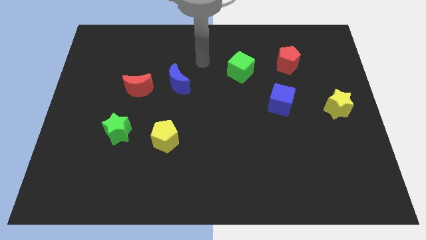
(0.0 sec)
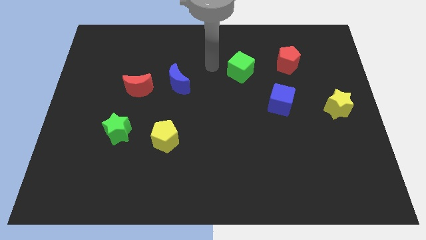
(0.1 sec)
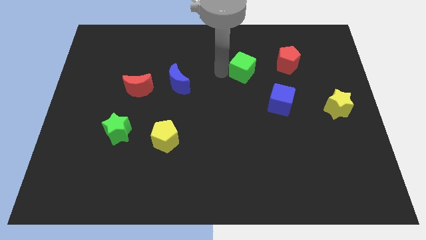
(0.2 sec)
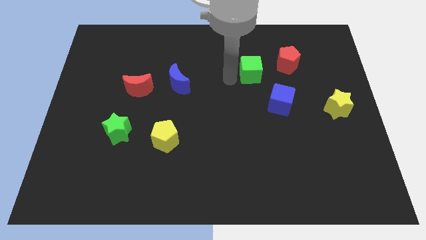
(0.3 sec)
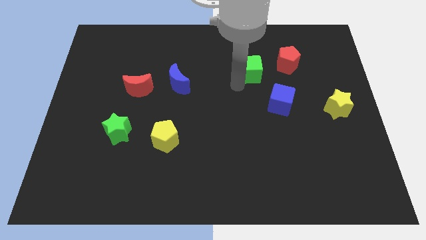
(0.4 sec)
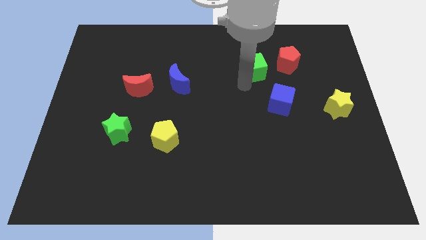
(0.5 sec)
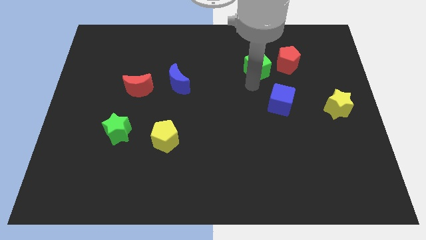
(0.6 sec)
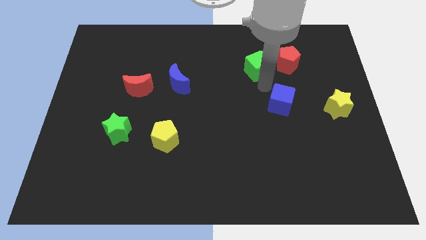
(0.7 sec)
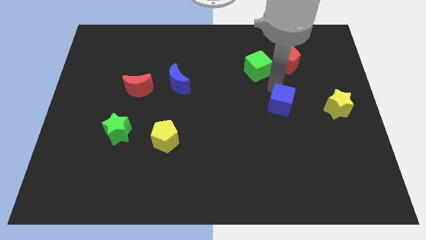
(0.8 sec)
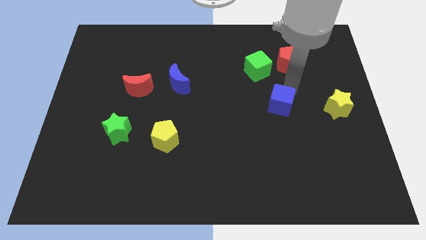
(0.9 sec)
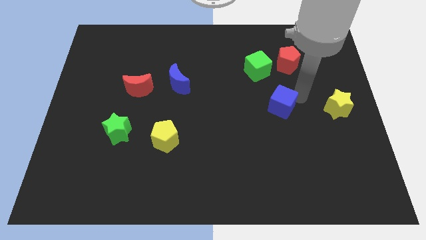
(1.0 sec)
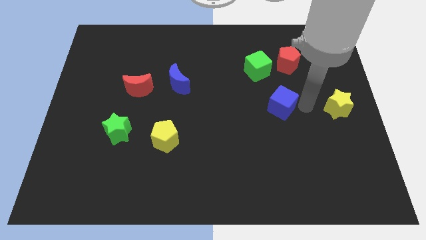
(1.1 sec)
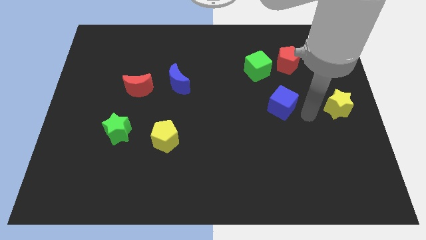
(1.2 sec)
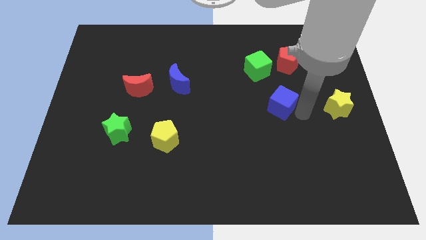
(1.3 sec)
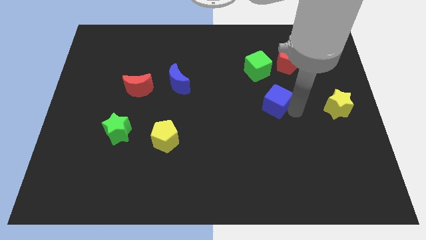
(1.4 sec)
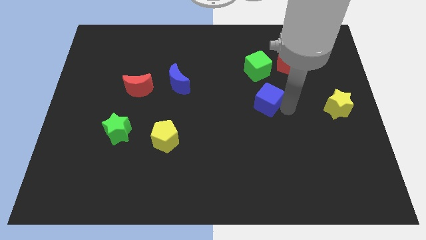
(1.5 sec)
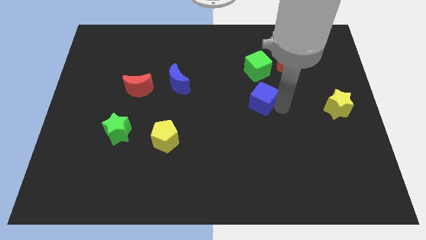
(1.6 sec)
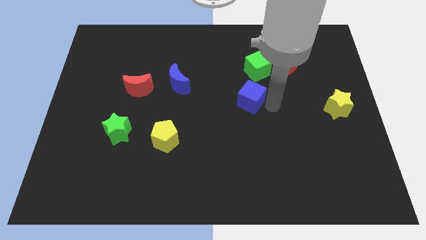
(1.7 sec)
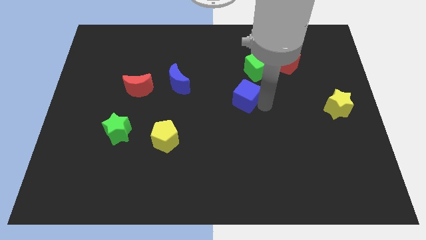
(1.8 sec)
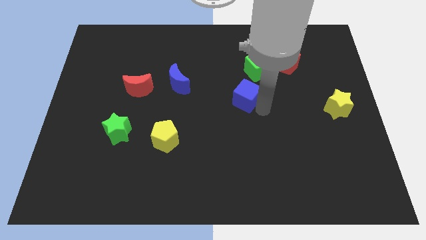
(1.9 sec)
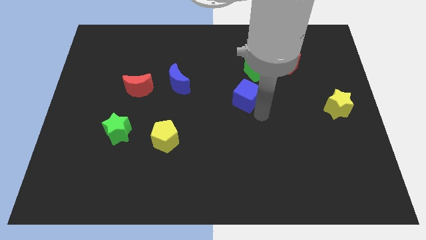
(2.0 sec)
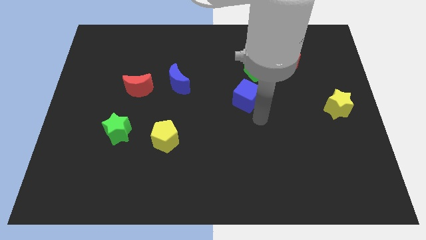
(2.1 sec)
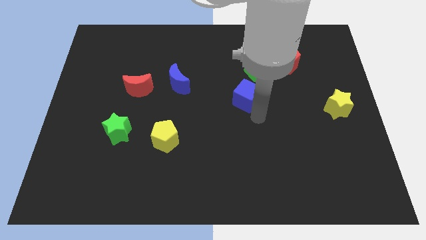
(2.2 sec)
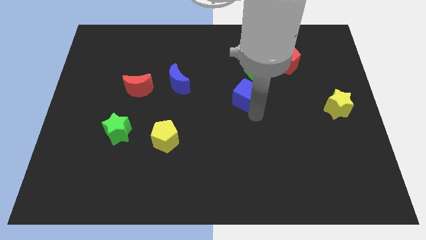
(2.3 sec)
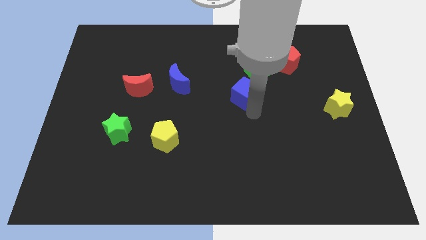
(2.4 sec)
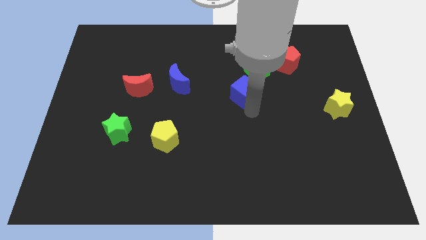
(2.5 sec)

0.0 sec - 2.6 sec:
slightly slide the blue cube up and then left

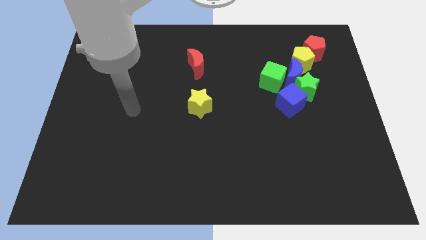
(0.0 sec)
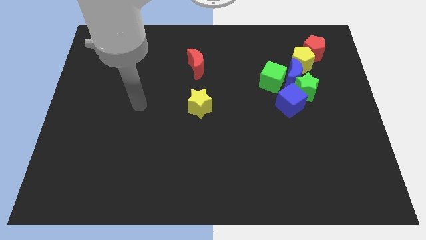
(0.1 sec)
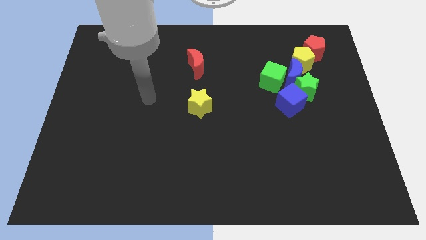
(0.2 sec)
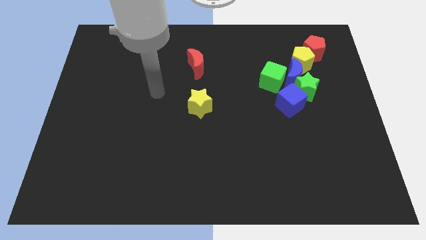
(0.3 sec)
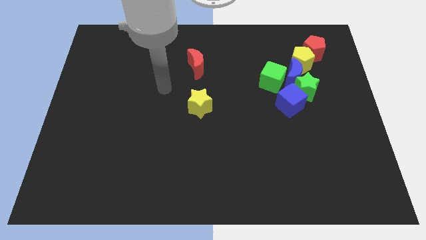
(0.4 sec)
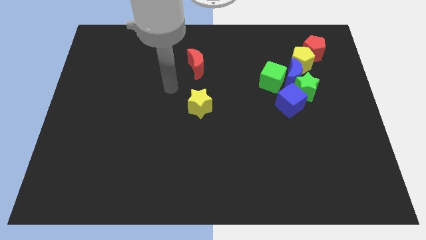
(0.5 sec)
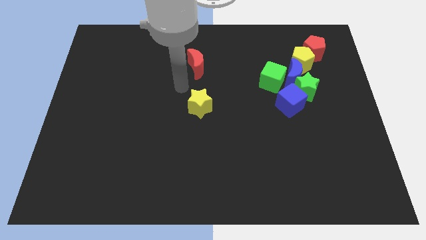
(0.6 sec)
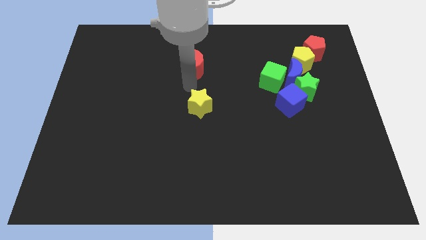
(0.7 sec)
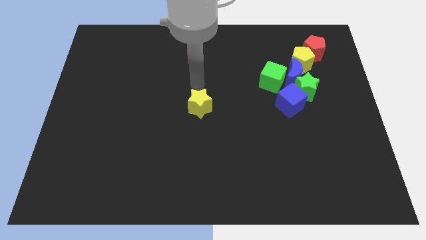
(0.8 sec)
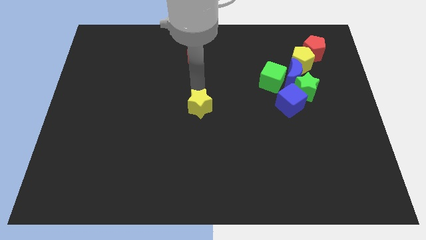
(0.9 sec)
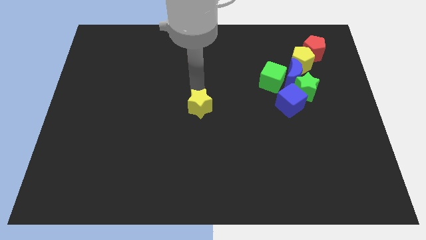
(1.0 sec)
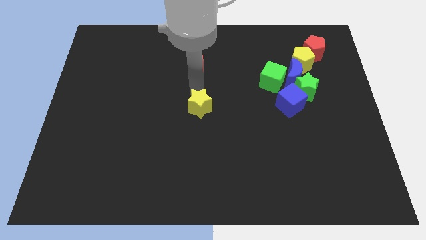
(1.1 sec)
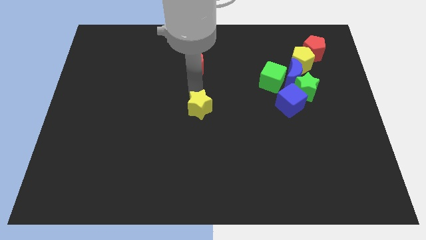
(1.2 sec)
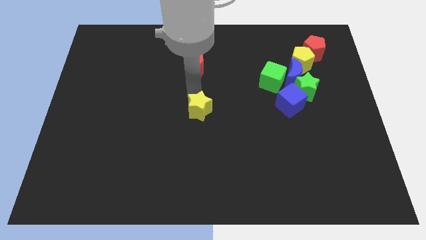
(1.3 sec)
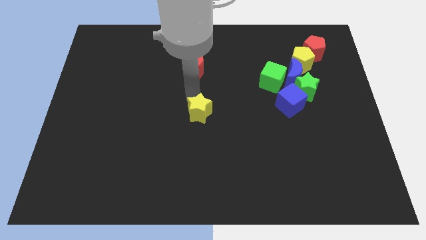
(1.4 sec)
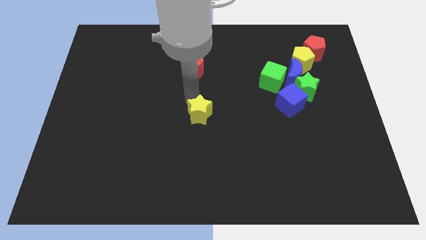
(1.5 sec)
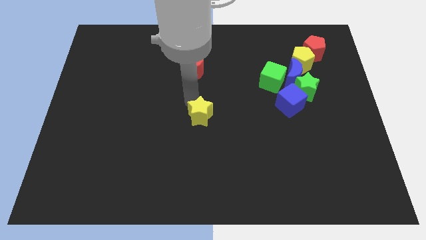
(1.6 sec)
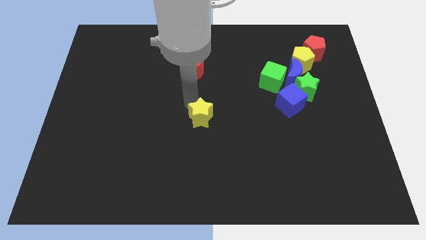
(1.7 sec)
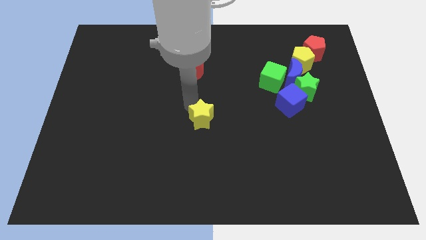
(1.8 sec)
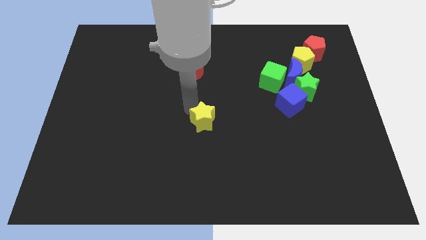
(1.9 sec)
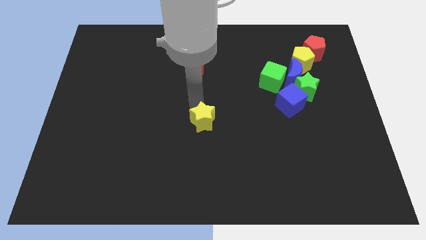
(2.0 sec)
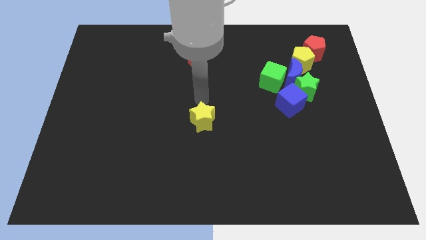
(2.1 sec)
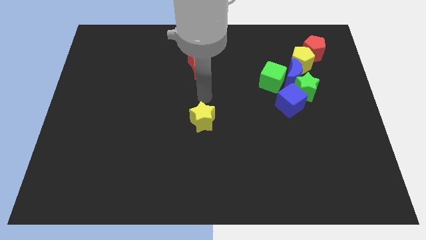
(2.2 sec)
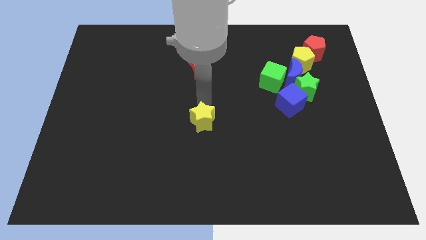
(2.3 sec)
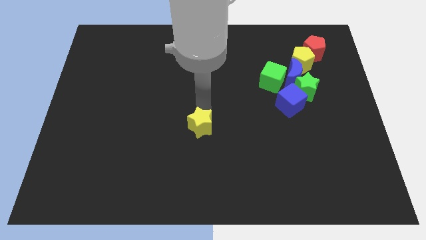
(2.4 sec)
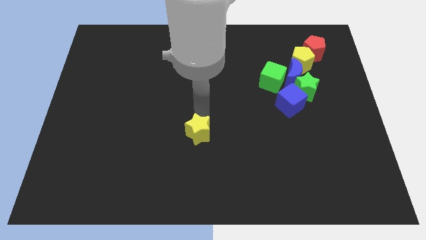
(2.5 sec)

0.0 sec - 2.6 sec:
slide the yellow star down slightly

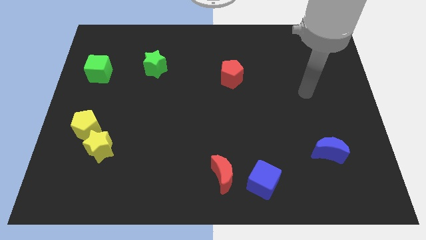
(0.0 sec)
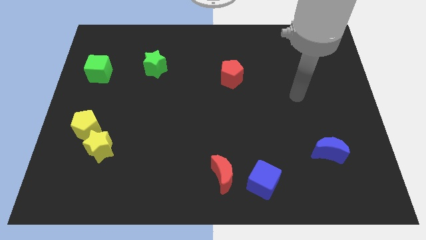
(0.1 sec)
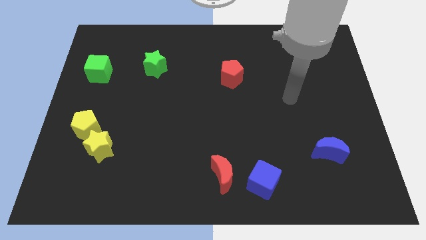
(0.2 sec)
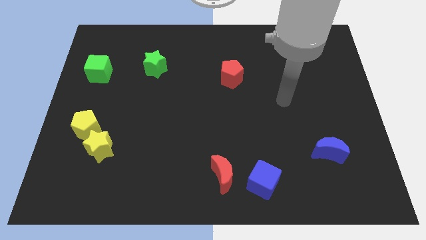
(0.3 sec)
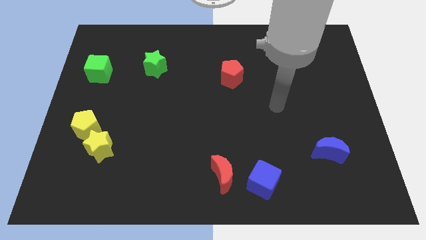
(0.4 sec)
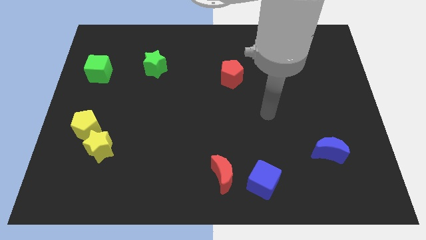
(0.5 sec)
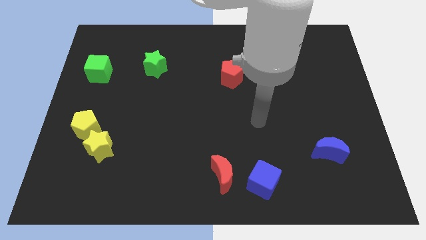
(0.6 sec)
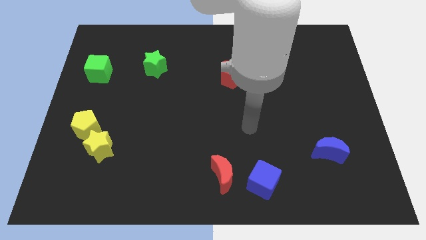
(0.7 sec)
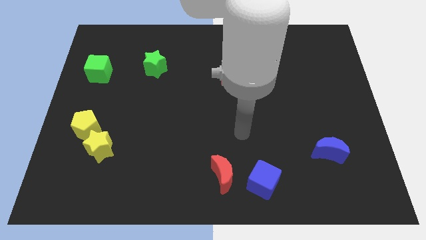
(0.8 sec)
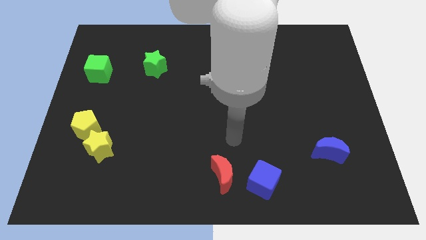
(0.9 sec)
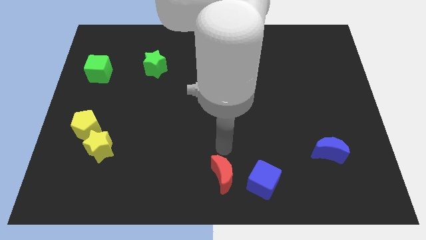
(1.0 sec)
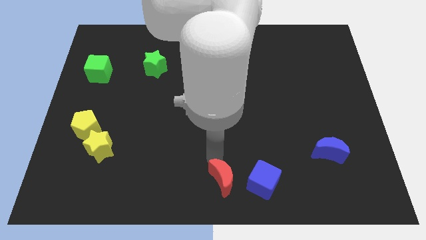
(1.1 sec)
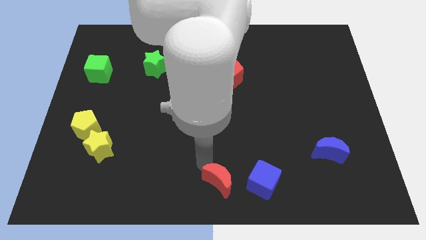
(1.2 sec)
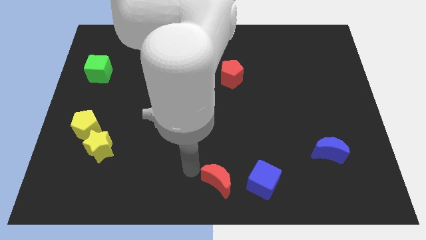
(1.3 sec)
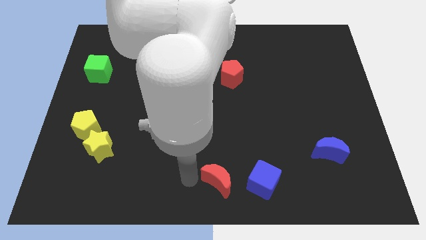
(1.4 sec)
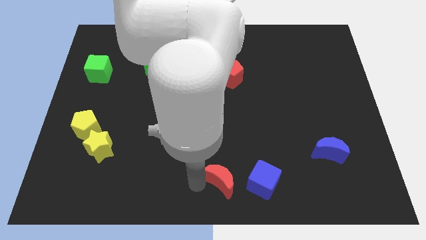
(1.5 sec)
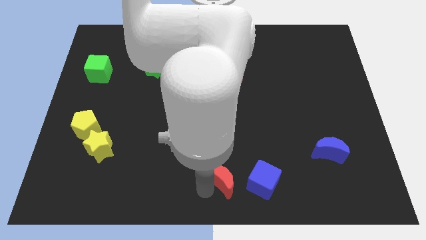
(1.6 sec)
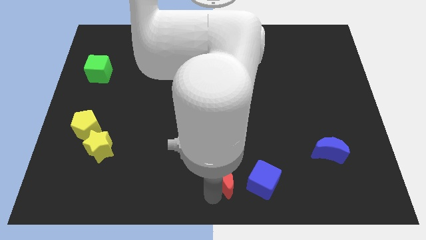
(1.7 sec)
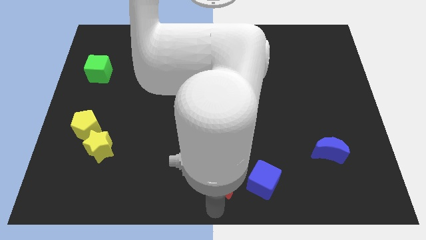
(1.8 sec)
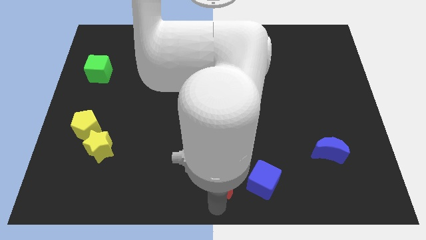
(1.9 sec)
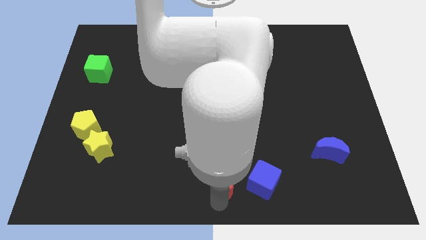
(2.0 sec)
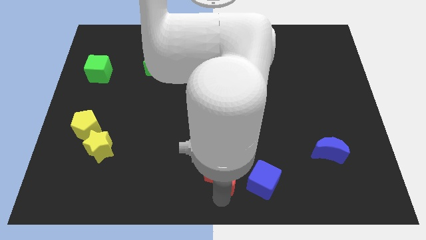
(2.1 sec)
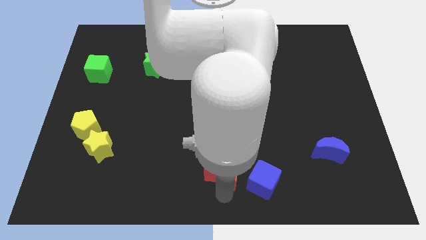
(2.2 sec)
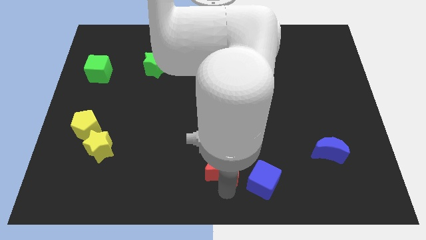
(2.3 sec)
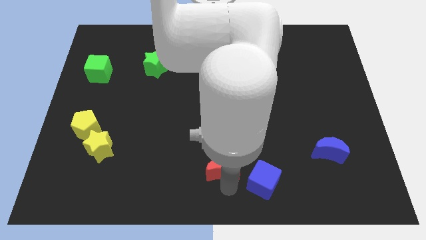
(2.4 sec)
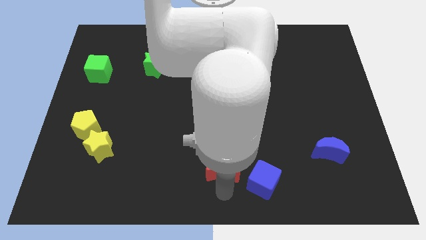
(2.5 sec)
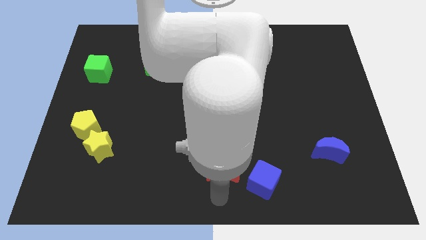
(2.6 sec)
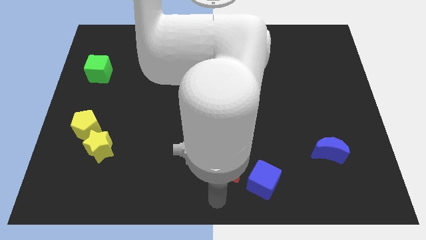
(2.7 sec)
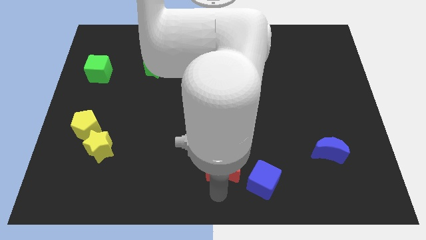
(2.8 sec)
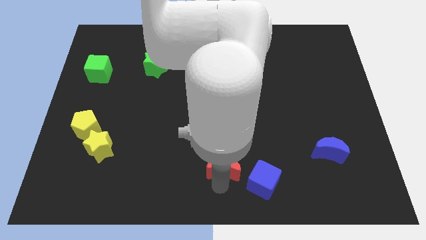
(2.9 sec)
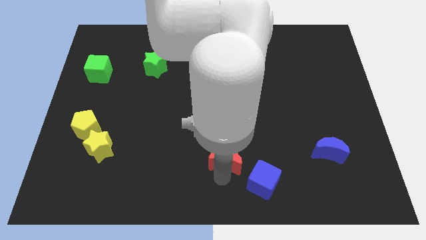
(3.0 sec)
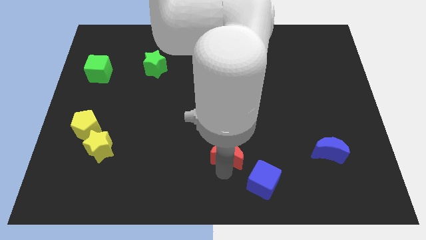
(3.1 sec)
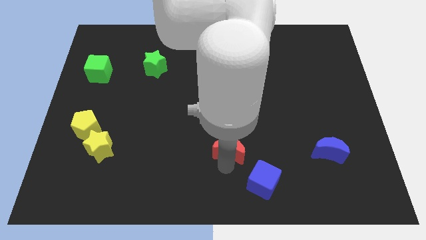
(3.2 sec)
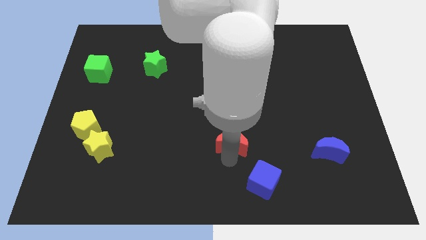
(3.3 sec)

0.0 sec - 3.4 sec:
push the red moon upwards a little bit
